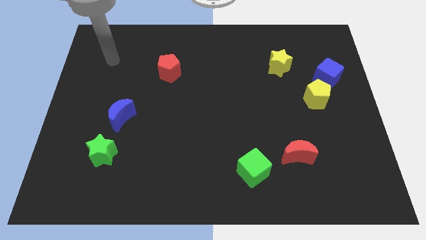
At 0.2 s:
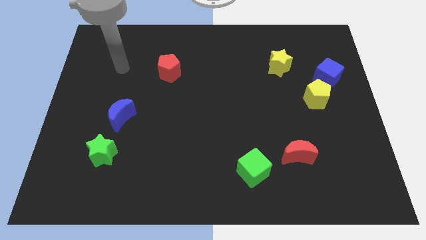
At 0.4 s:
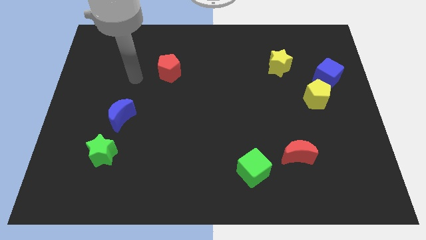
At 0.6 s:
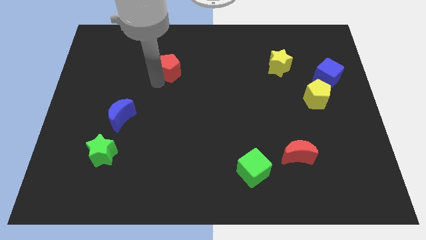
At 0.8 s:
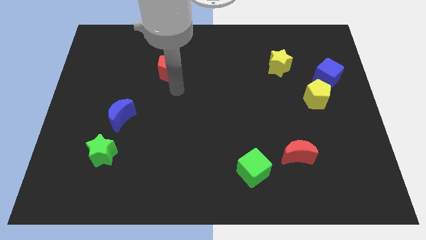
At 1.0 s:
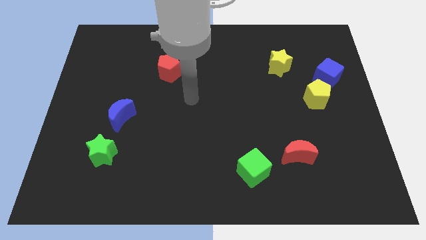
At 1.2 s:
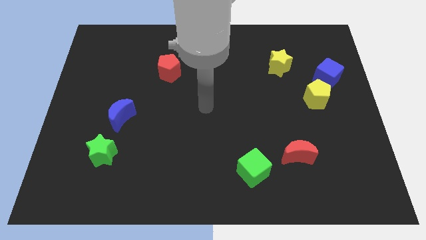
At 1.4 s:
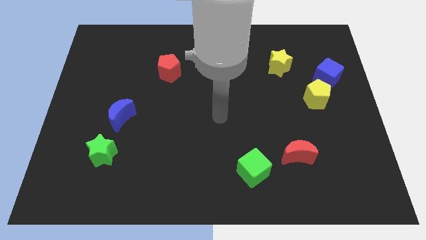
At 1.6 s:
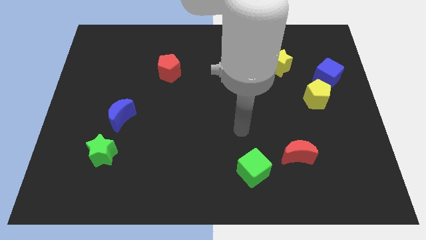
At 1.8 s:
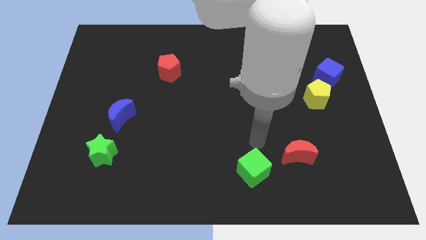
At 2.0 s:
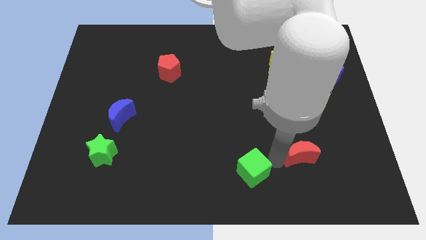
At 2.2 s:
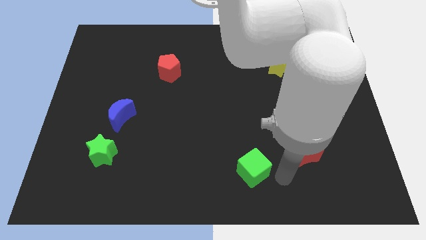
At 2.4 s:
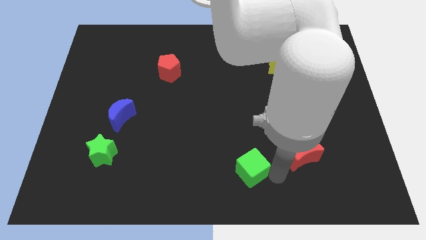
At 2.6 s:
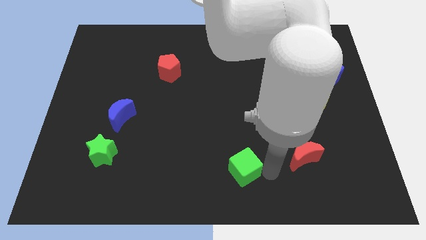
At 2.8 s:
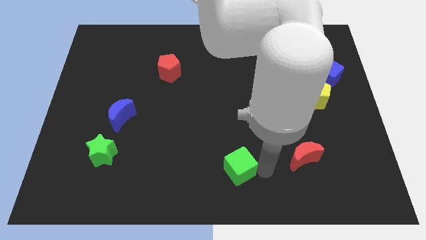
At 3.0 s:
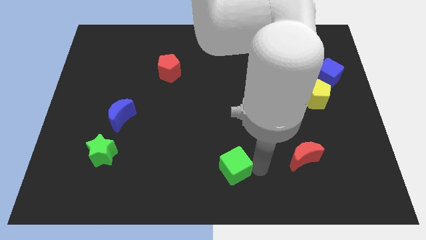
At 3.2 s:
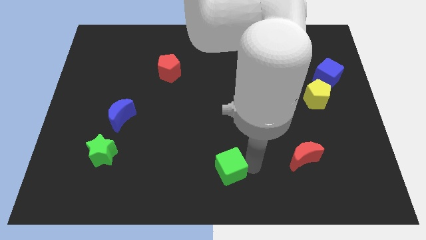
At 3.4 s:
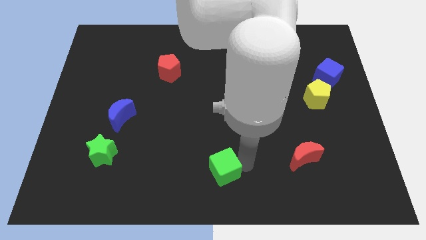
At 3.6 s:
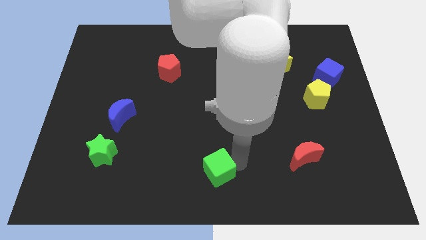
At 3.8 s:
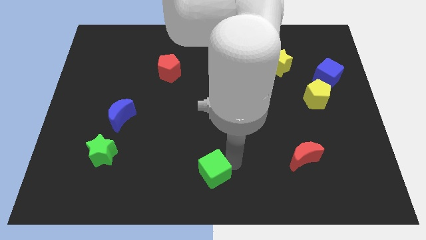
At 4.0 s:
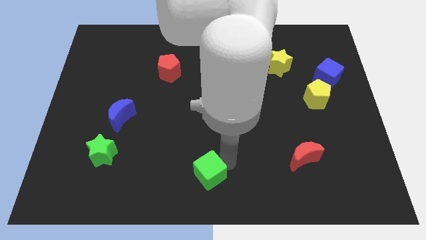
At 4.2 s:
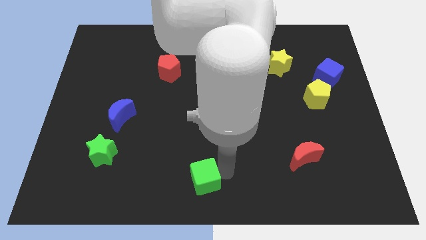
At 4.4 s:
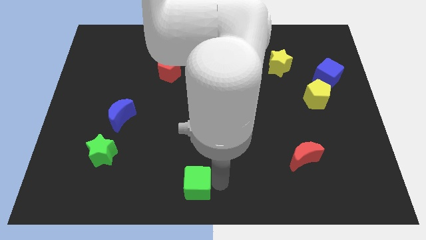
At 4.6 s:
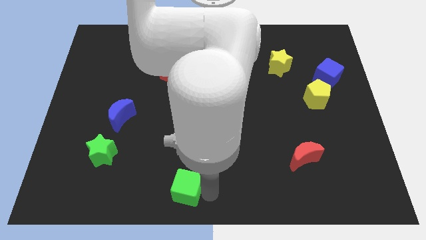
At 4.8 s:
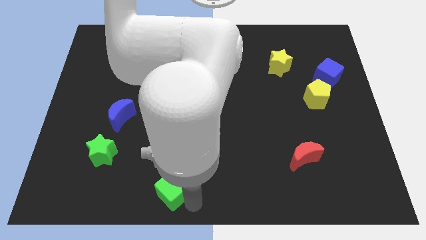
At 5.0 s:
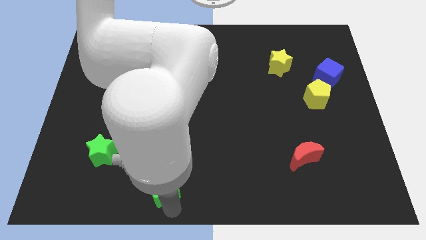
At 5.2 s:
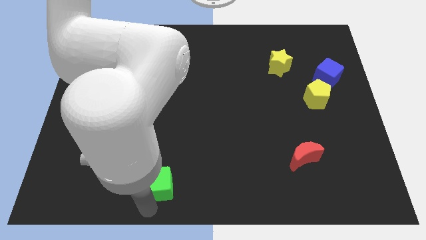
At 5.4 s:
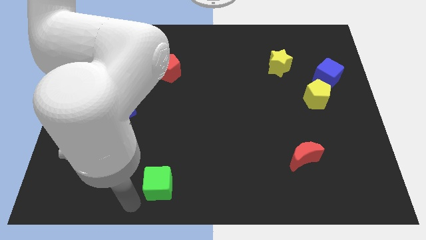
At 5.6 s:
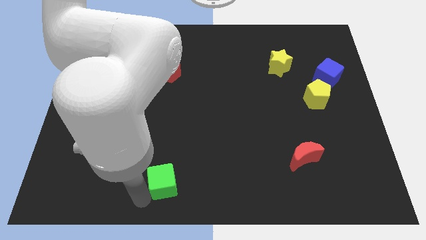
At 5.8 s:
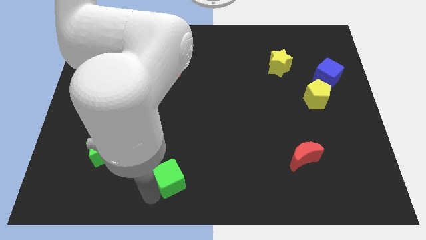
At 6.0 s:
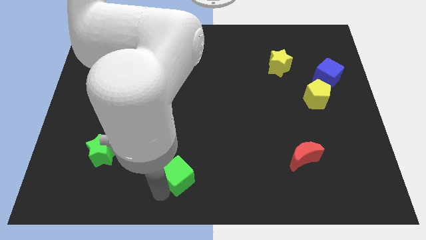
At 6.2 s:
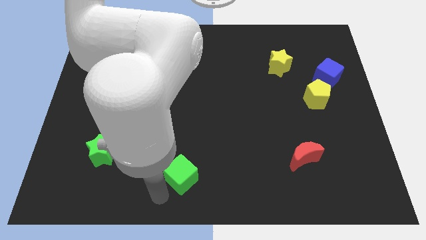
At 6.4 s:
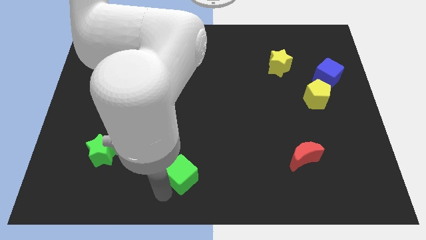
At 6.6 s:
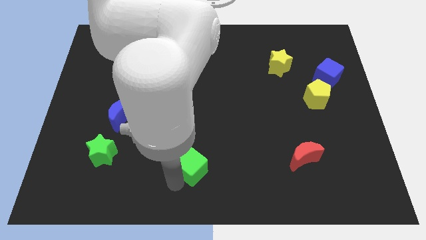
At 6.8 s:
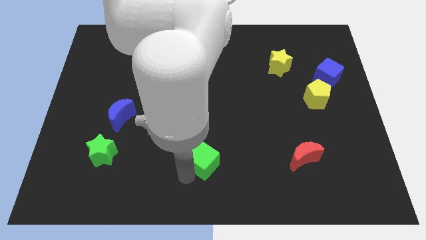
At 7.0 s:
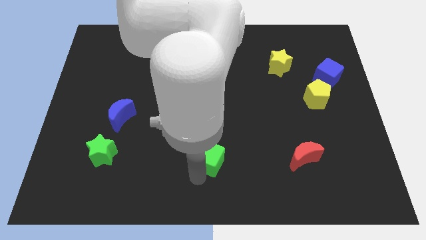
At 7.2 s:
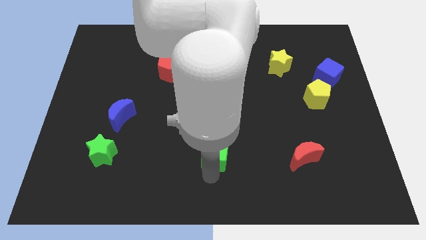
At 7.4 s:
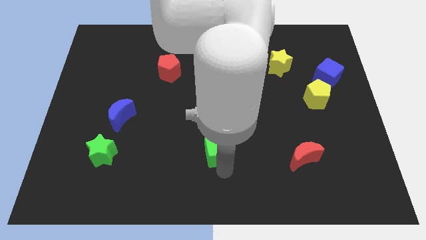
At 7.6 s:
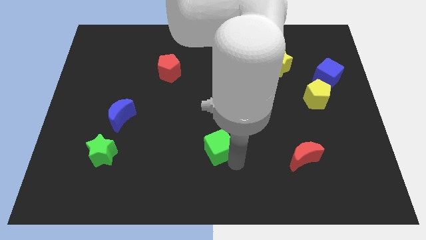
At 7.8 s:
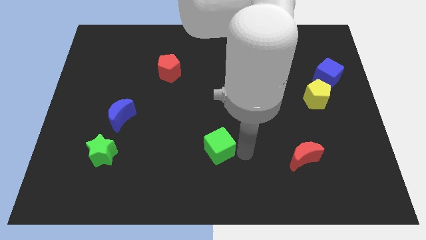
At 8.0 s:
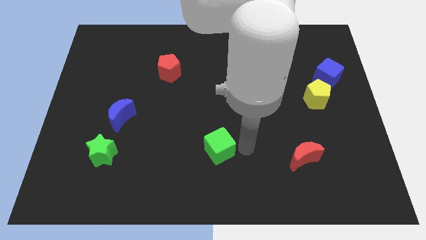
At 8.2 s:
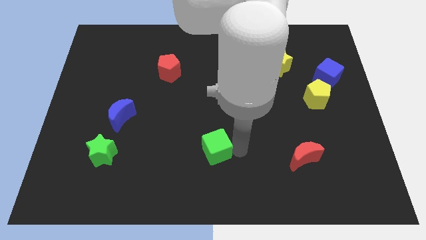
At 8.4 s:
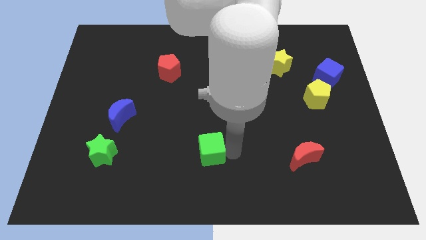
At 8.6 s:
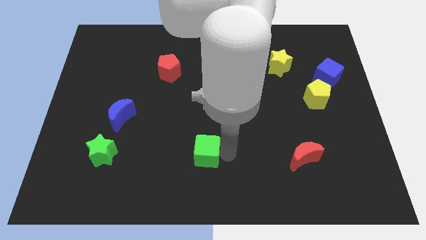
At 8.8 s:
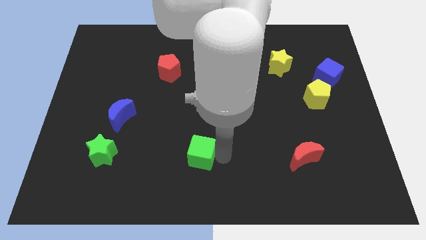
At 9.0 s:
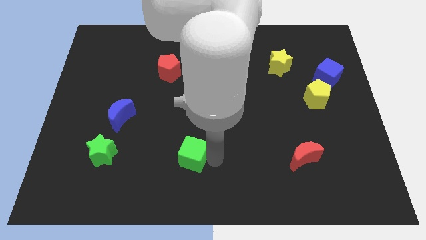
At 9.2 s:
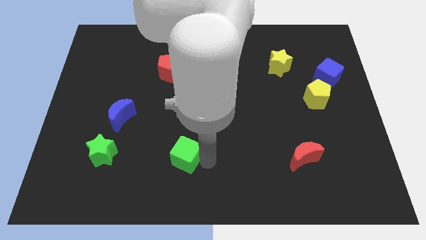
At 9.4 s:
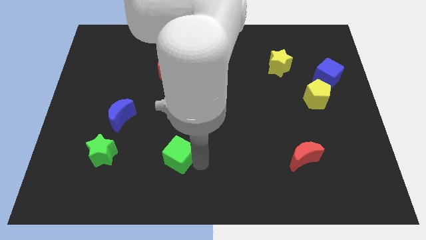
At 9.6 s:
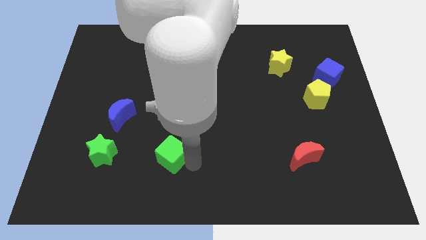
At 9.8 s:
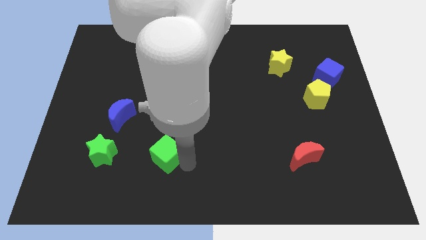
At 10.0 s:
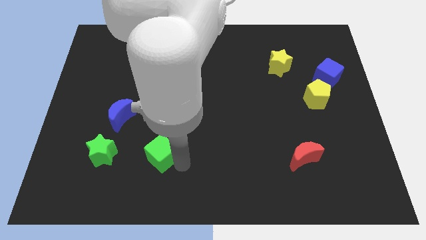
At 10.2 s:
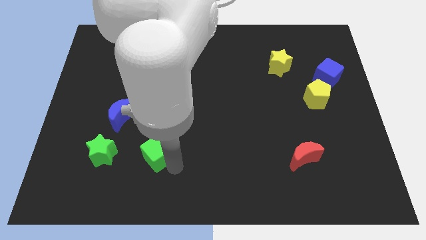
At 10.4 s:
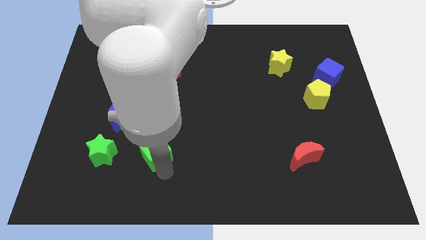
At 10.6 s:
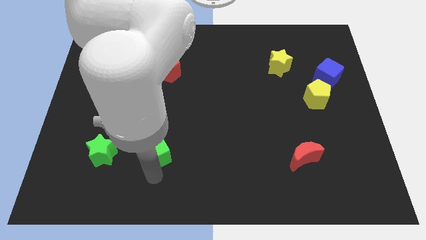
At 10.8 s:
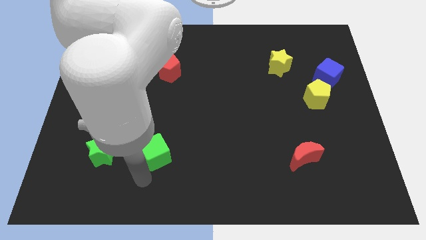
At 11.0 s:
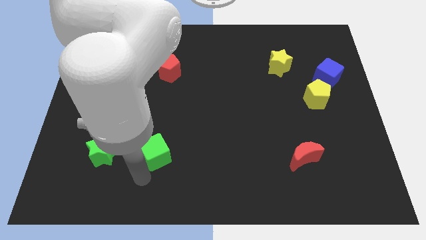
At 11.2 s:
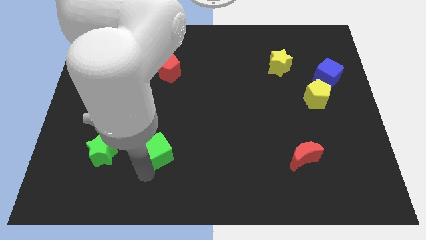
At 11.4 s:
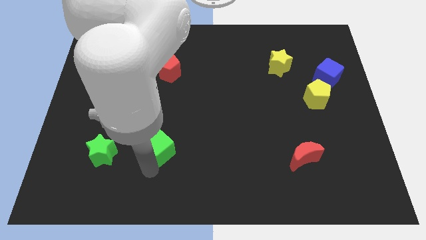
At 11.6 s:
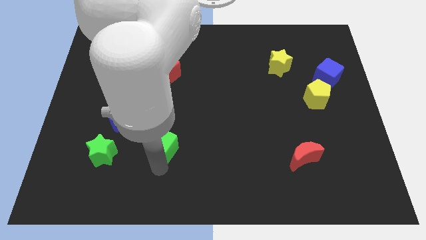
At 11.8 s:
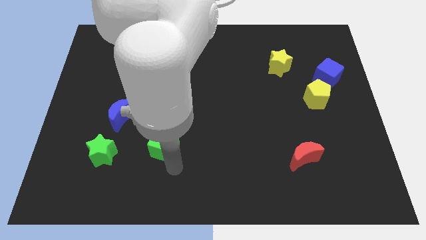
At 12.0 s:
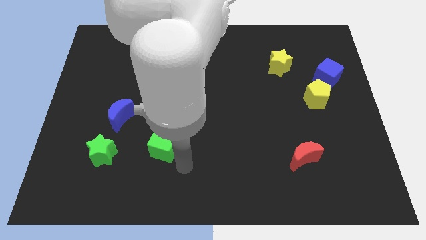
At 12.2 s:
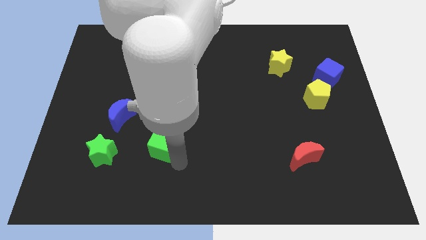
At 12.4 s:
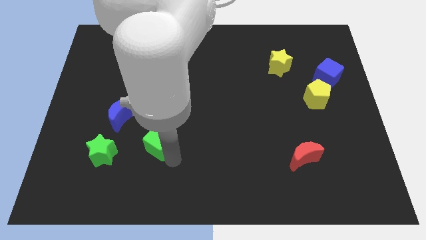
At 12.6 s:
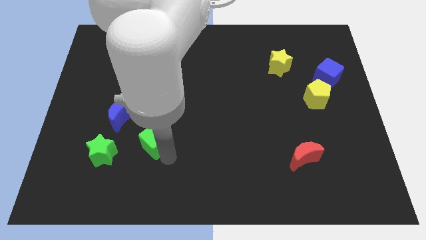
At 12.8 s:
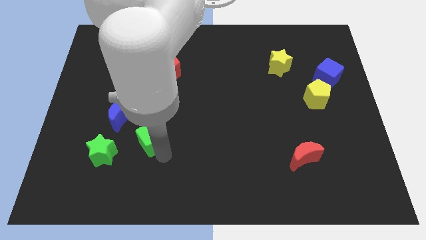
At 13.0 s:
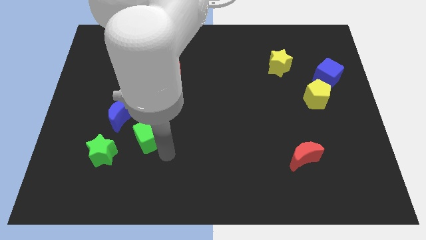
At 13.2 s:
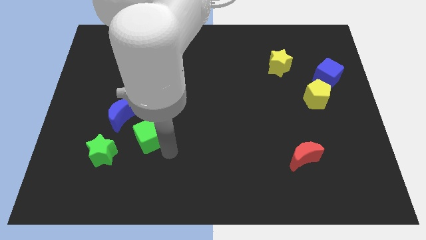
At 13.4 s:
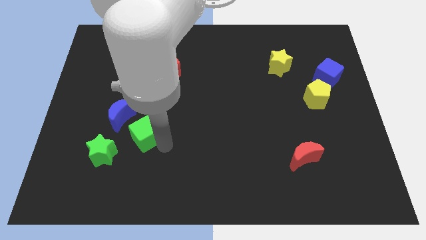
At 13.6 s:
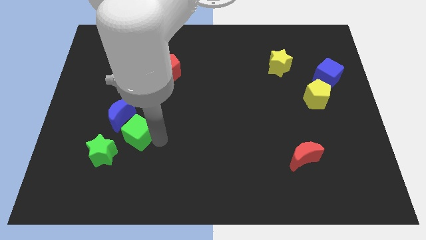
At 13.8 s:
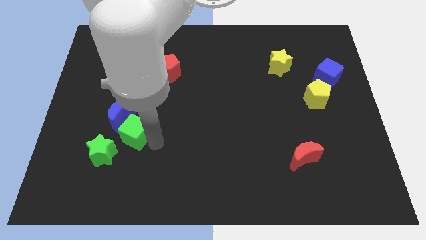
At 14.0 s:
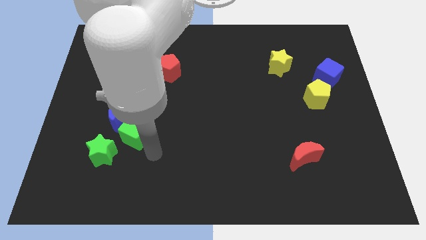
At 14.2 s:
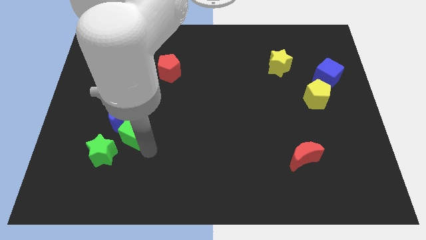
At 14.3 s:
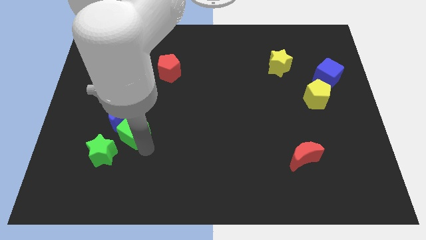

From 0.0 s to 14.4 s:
put the green cube close to the blue moon
